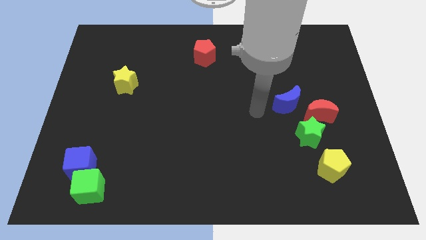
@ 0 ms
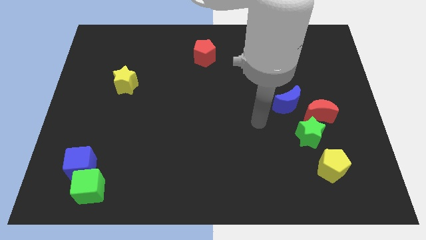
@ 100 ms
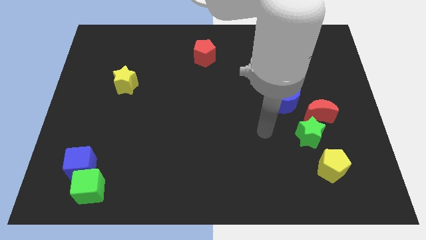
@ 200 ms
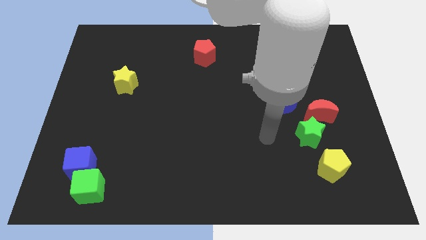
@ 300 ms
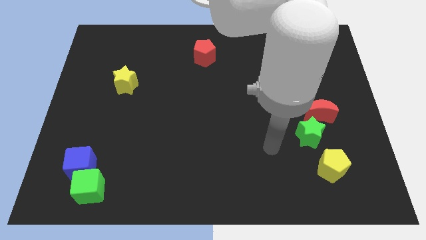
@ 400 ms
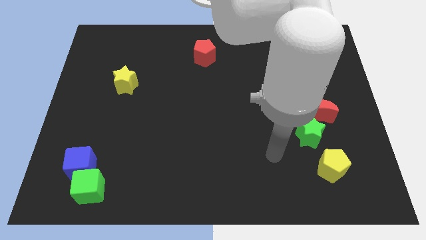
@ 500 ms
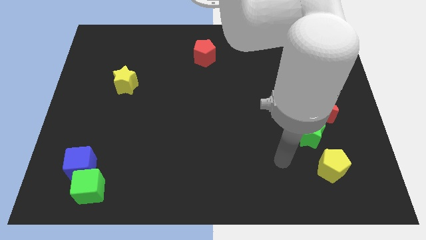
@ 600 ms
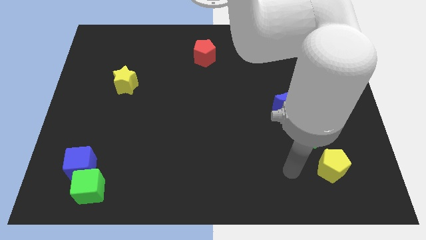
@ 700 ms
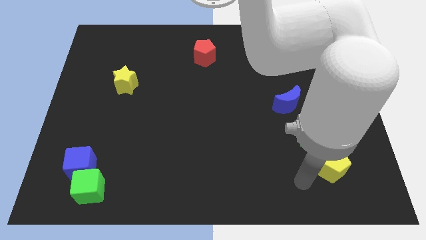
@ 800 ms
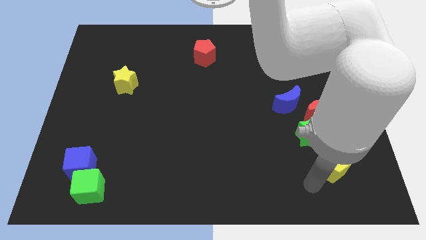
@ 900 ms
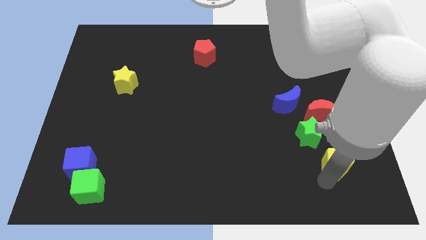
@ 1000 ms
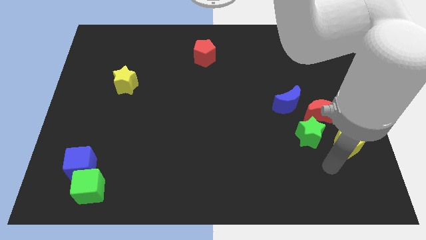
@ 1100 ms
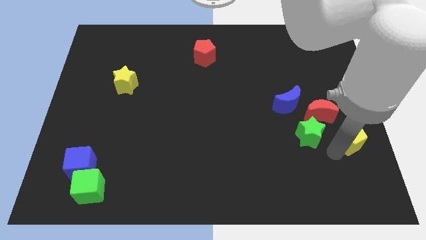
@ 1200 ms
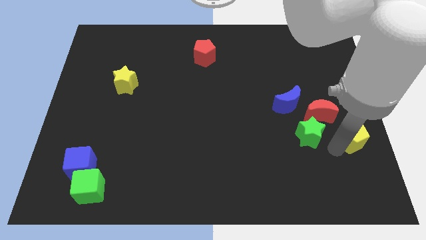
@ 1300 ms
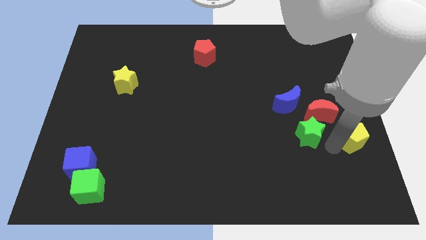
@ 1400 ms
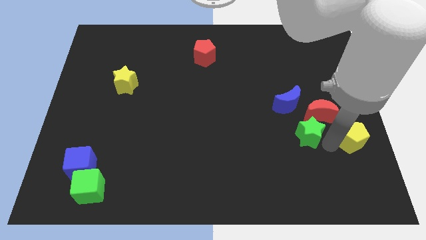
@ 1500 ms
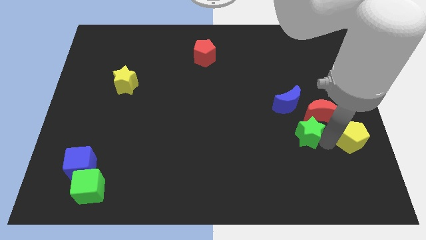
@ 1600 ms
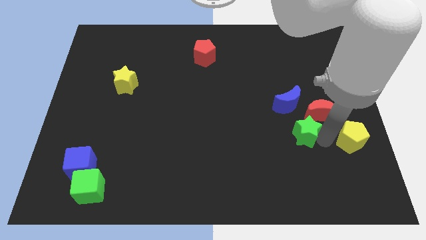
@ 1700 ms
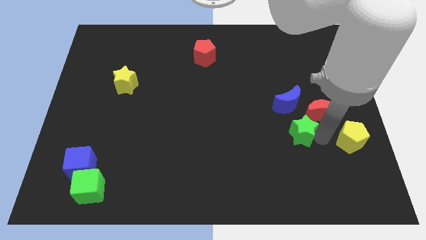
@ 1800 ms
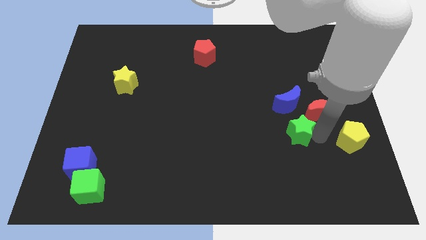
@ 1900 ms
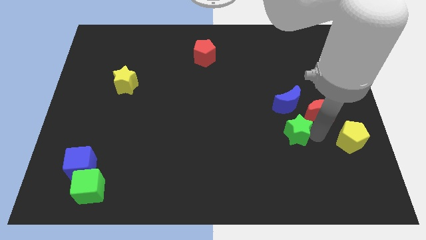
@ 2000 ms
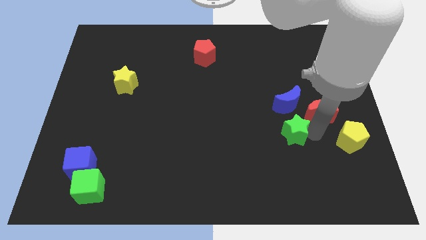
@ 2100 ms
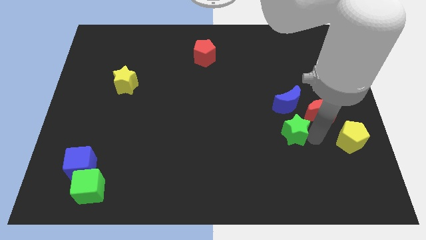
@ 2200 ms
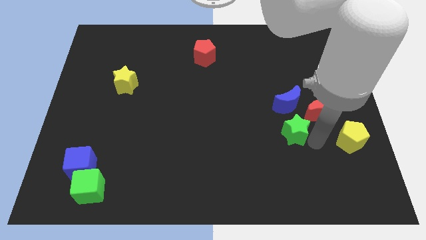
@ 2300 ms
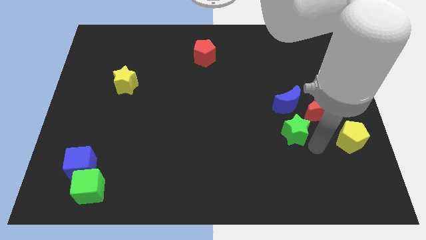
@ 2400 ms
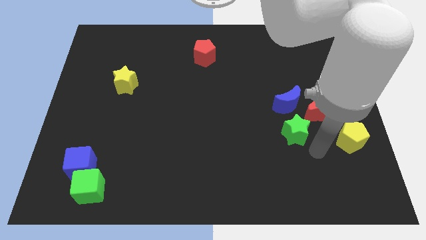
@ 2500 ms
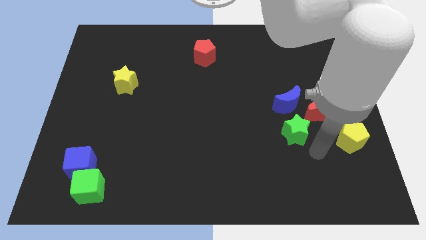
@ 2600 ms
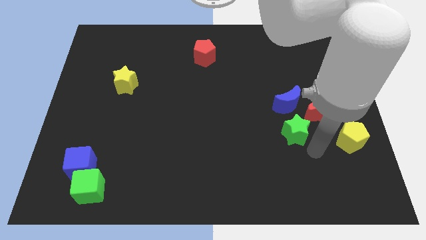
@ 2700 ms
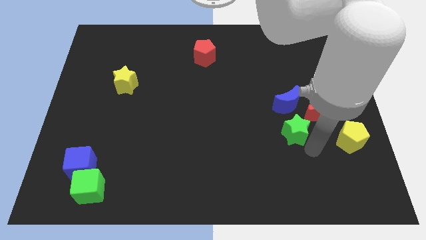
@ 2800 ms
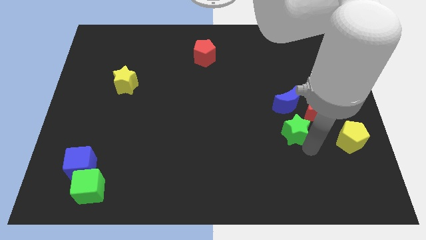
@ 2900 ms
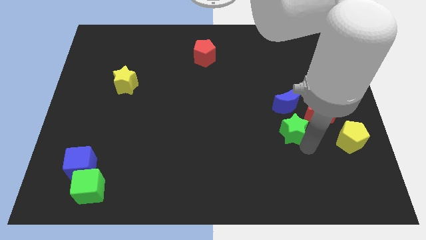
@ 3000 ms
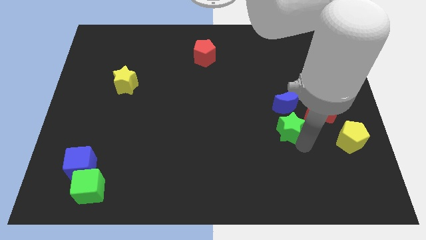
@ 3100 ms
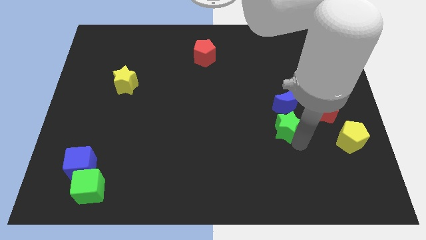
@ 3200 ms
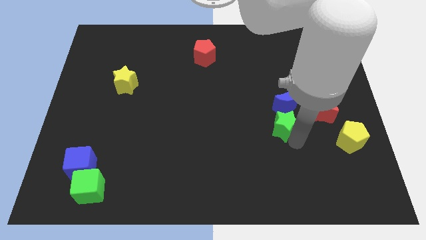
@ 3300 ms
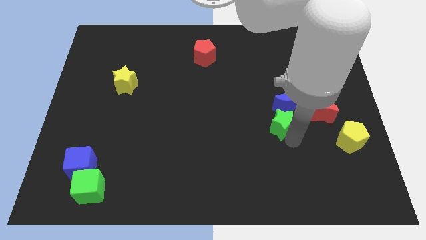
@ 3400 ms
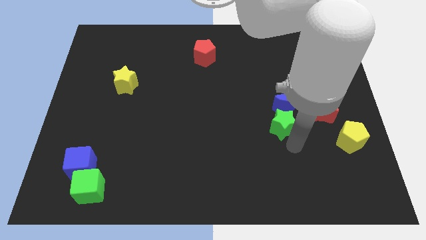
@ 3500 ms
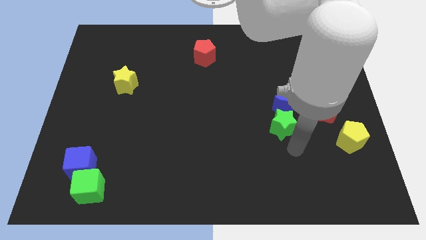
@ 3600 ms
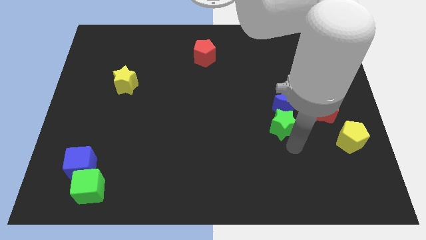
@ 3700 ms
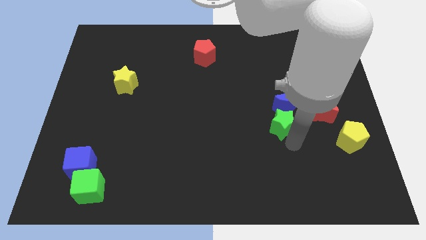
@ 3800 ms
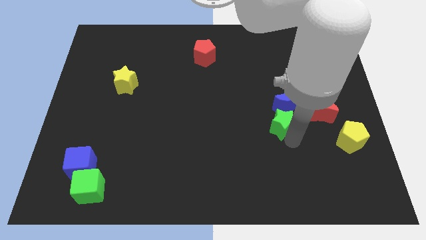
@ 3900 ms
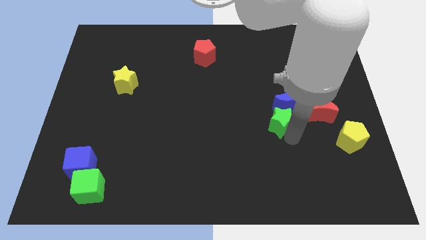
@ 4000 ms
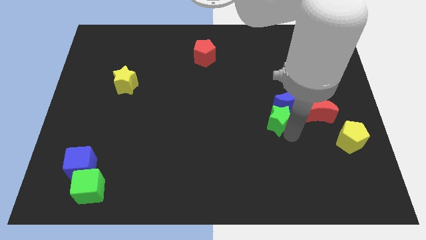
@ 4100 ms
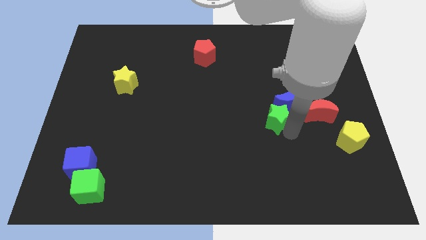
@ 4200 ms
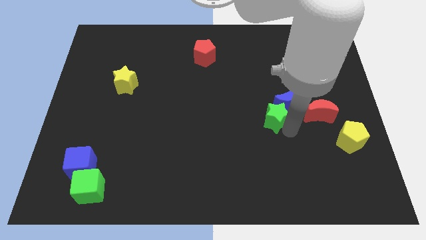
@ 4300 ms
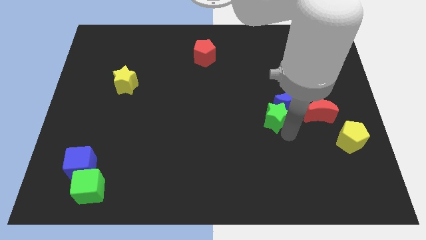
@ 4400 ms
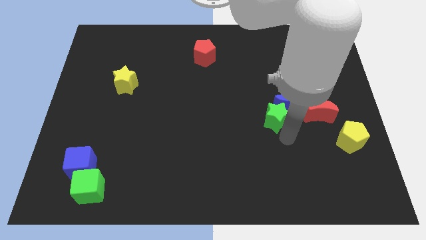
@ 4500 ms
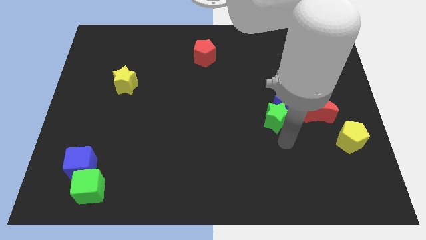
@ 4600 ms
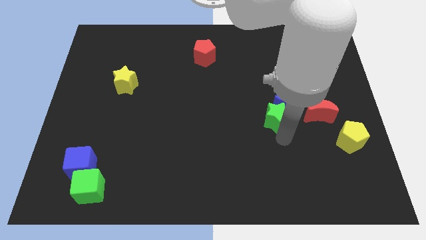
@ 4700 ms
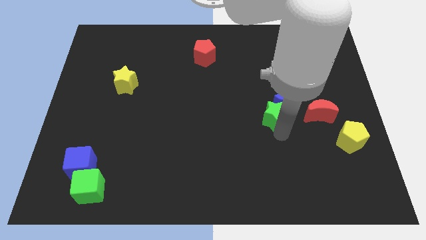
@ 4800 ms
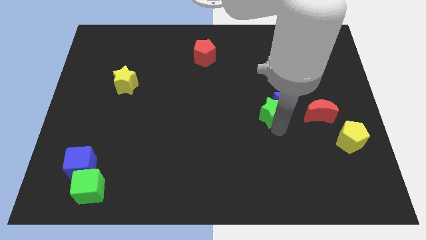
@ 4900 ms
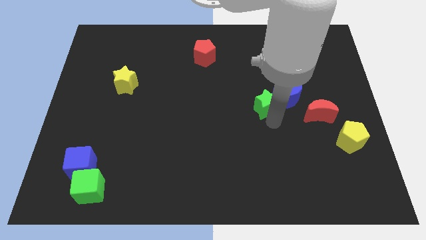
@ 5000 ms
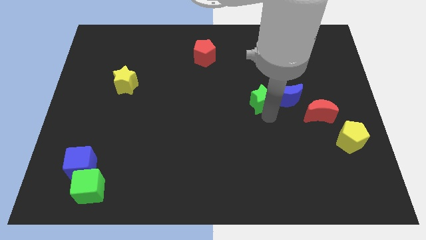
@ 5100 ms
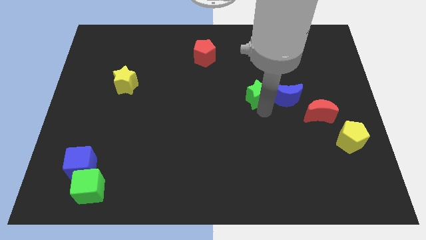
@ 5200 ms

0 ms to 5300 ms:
slide the green star to the top left of the blue moon

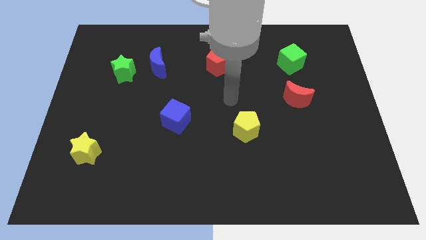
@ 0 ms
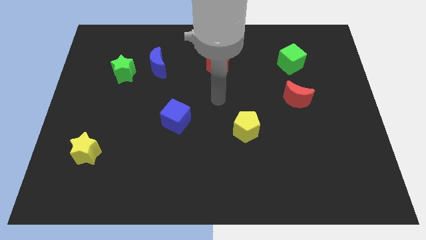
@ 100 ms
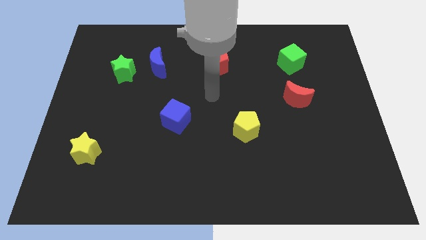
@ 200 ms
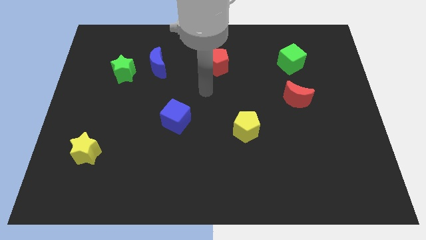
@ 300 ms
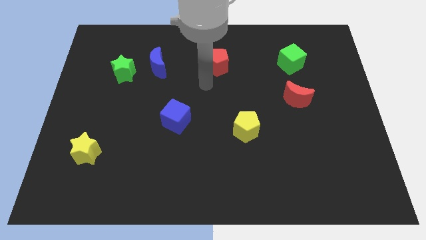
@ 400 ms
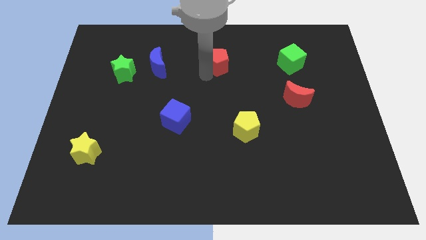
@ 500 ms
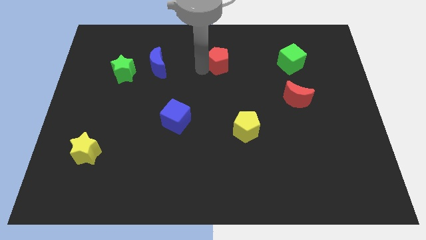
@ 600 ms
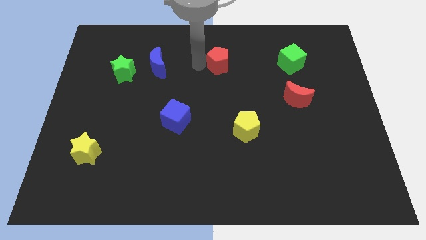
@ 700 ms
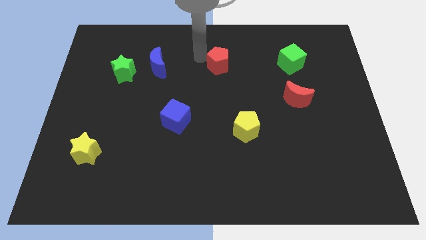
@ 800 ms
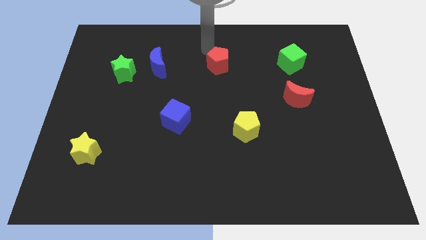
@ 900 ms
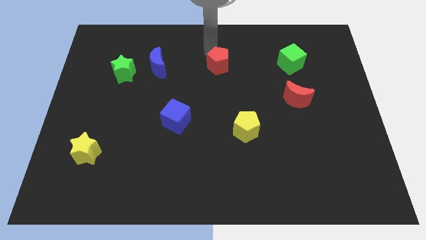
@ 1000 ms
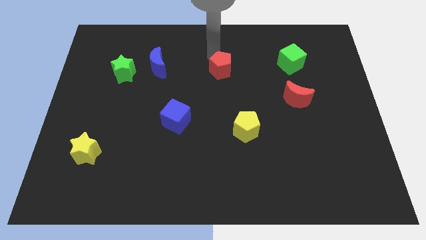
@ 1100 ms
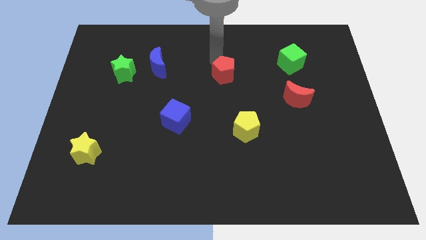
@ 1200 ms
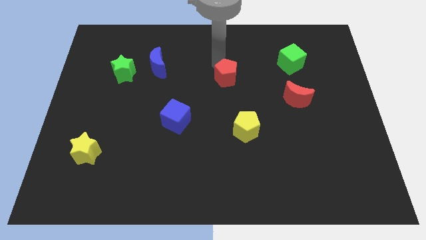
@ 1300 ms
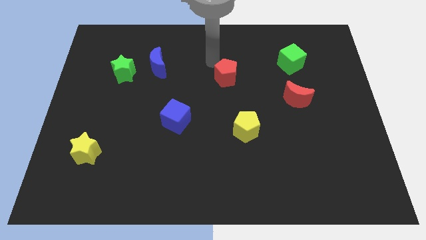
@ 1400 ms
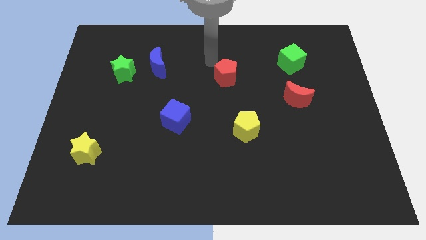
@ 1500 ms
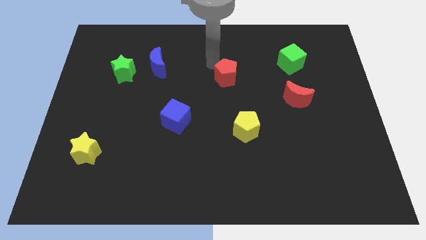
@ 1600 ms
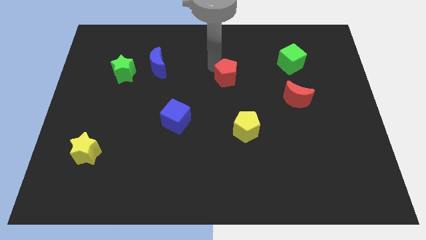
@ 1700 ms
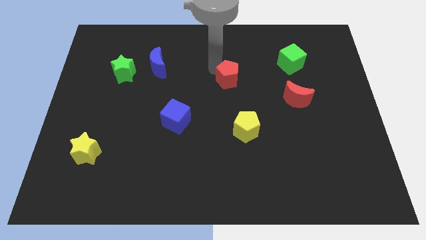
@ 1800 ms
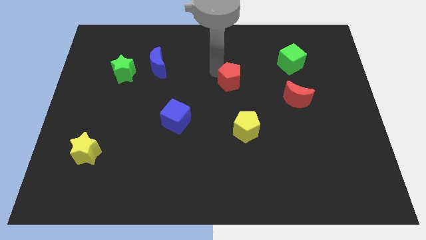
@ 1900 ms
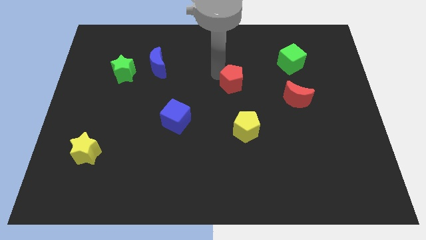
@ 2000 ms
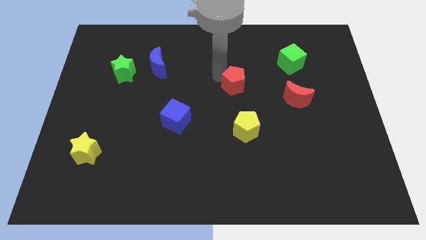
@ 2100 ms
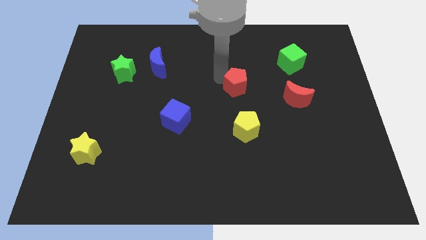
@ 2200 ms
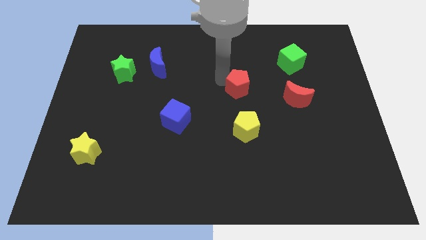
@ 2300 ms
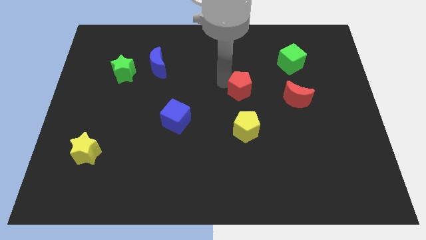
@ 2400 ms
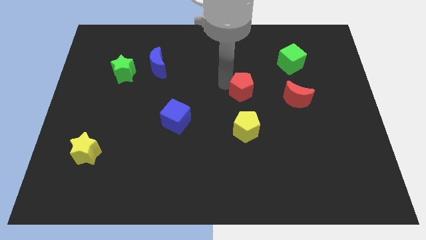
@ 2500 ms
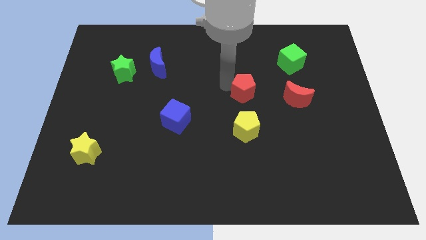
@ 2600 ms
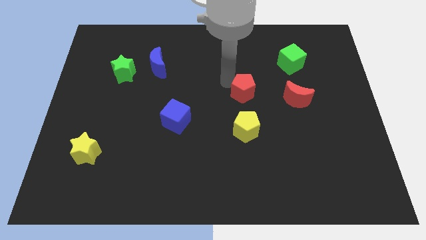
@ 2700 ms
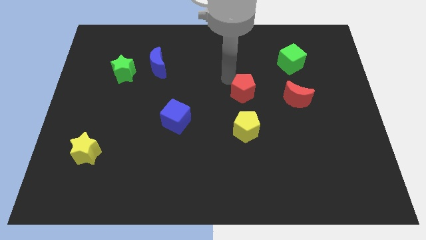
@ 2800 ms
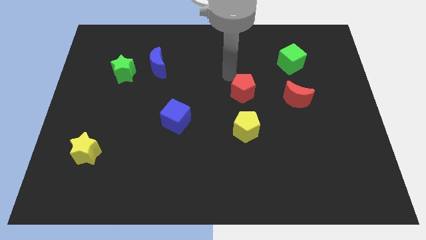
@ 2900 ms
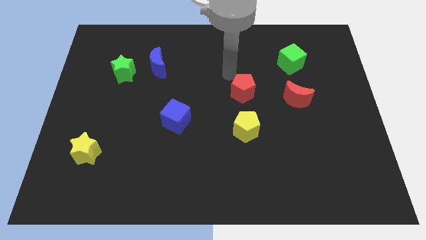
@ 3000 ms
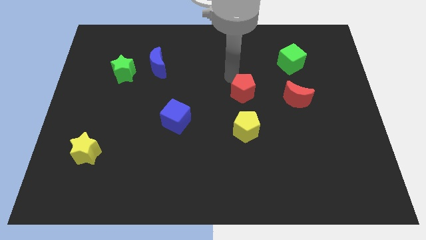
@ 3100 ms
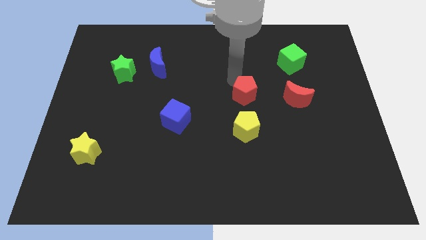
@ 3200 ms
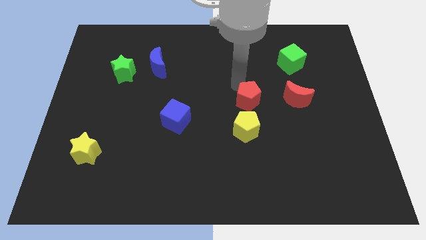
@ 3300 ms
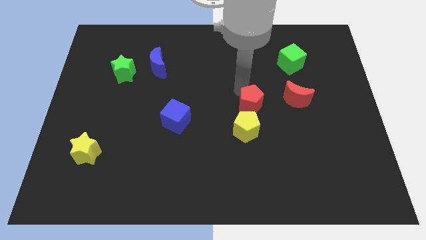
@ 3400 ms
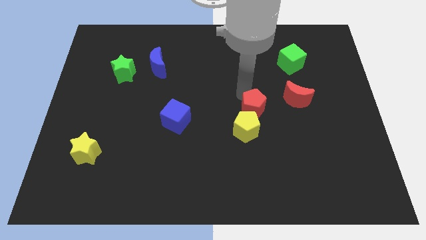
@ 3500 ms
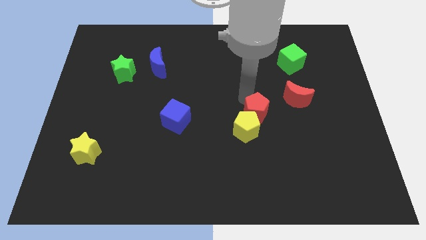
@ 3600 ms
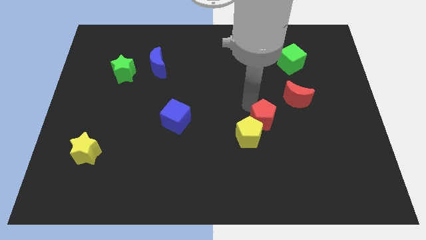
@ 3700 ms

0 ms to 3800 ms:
move the red pentagon just right of the yellow pentagon
